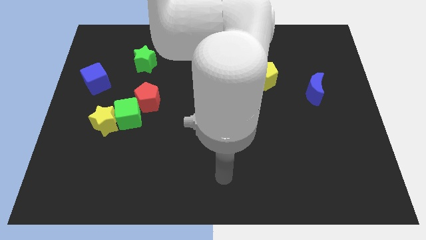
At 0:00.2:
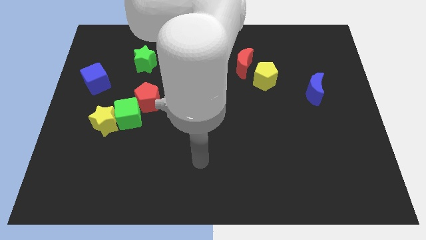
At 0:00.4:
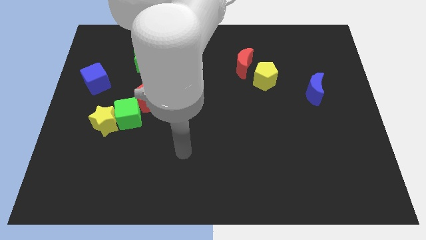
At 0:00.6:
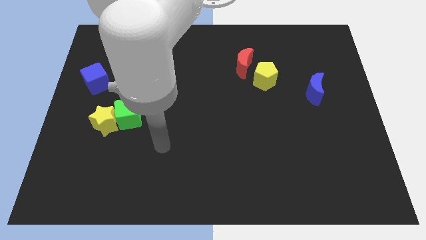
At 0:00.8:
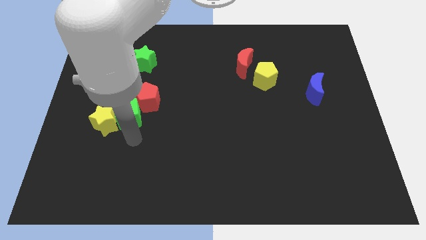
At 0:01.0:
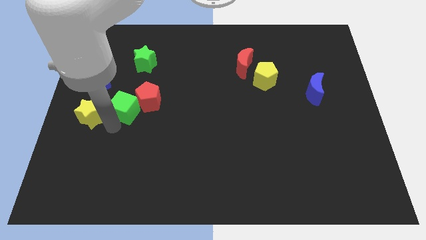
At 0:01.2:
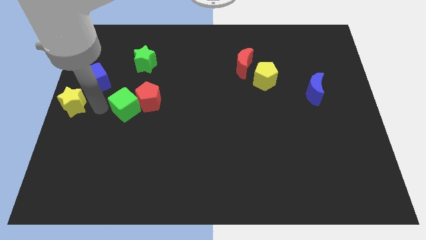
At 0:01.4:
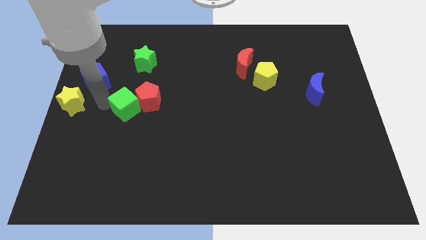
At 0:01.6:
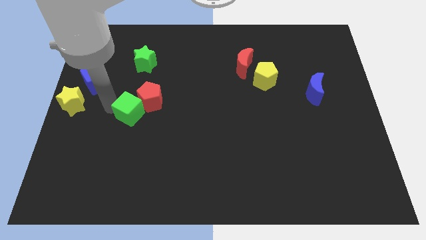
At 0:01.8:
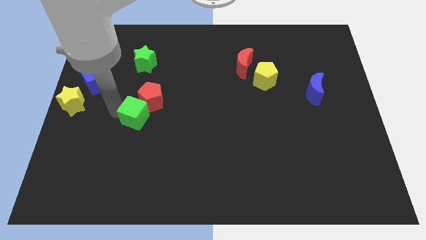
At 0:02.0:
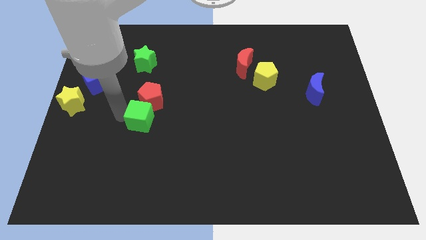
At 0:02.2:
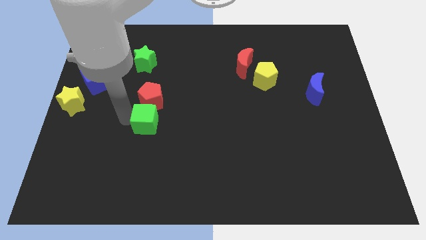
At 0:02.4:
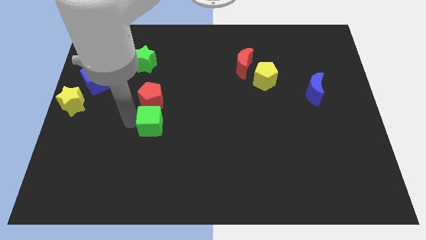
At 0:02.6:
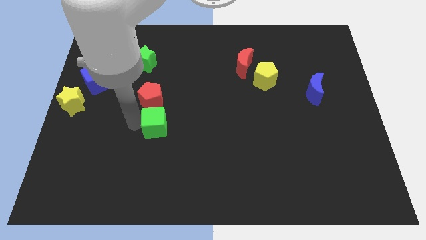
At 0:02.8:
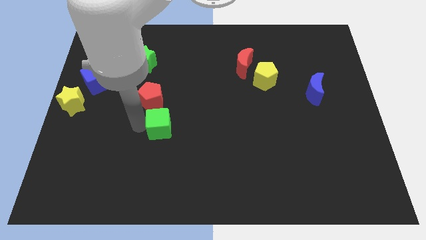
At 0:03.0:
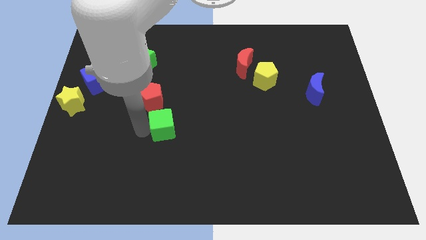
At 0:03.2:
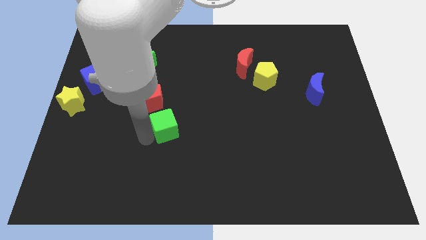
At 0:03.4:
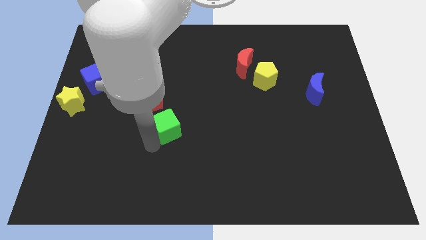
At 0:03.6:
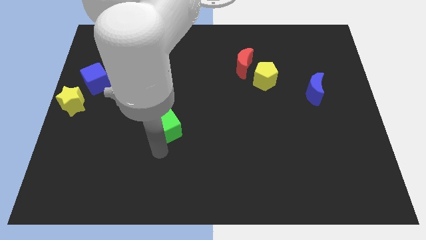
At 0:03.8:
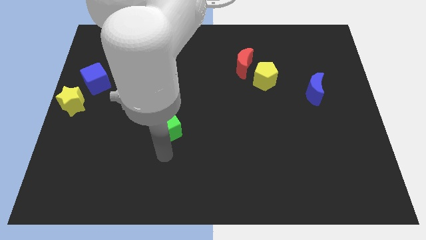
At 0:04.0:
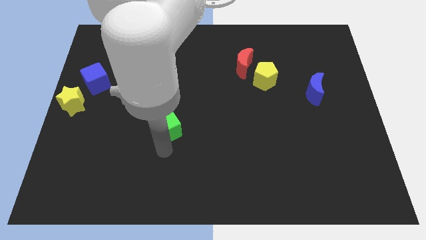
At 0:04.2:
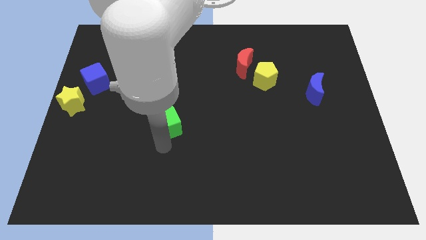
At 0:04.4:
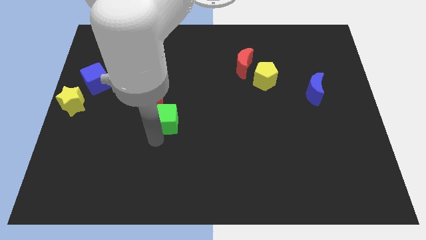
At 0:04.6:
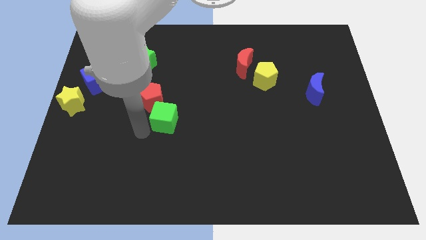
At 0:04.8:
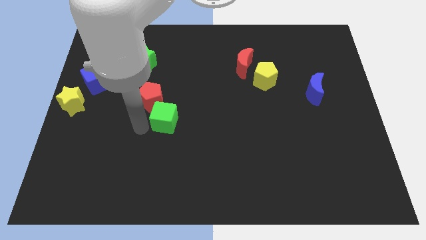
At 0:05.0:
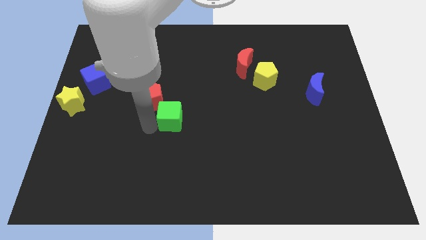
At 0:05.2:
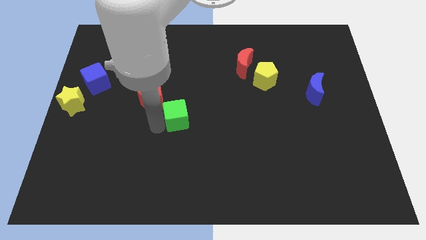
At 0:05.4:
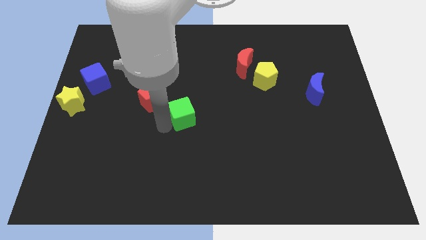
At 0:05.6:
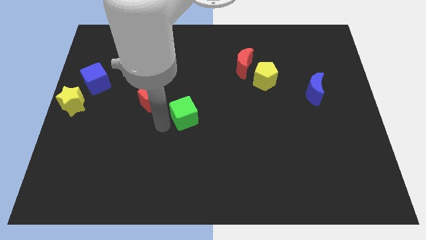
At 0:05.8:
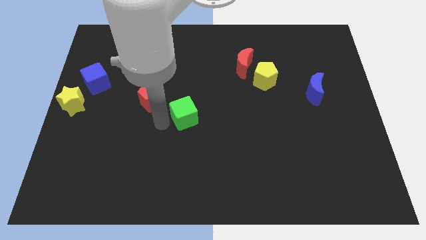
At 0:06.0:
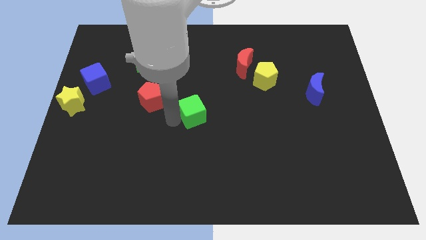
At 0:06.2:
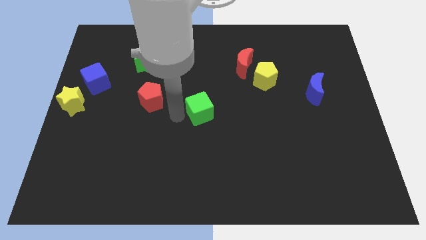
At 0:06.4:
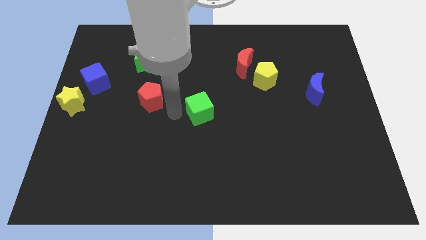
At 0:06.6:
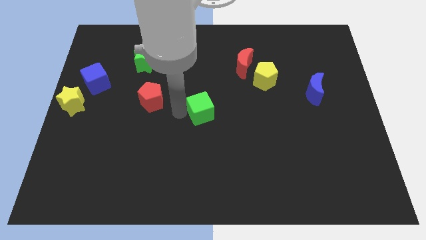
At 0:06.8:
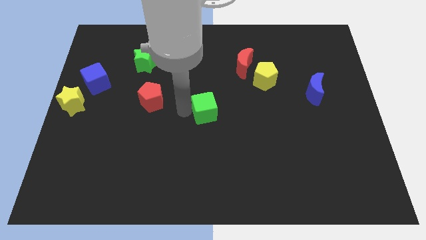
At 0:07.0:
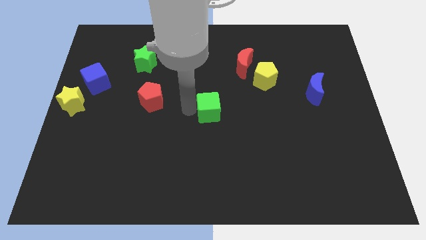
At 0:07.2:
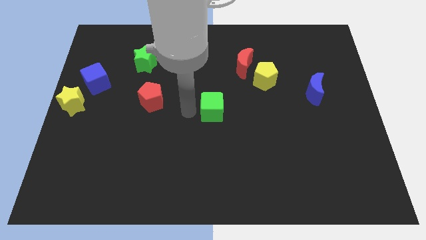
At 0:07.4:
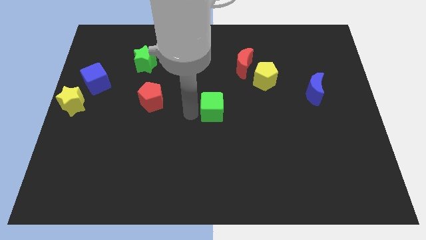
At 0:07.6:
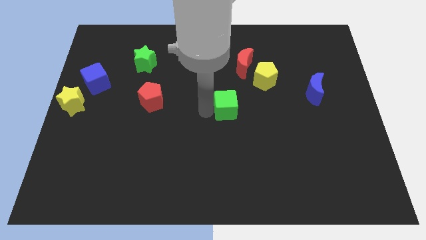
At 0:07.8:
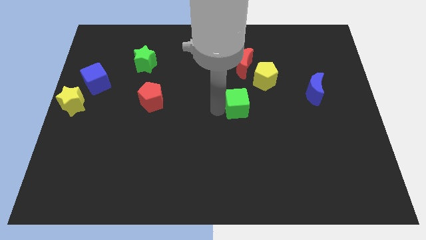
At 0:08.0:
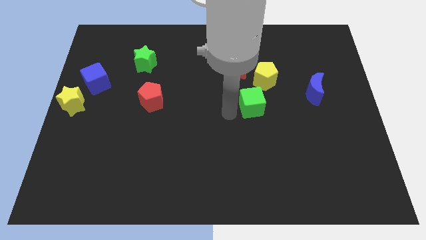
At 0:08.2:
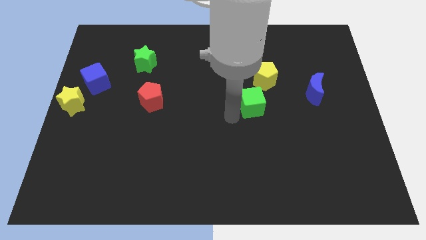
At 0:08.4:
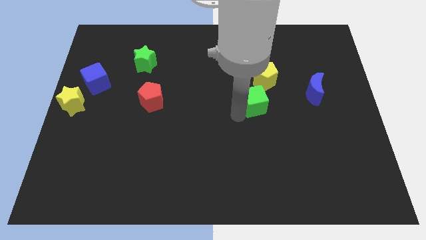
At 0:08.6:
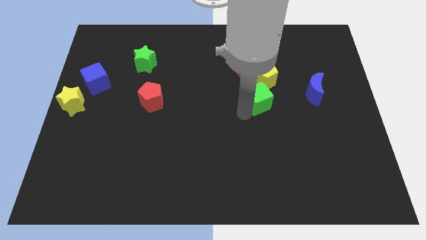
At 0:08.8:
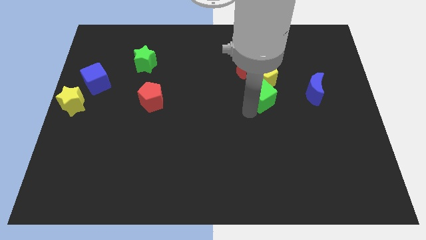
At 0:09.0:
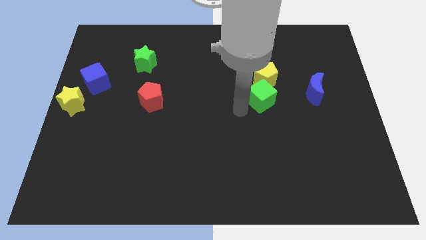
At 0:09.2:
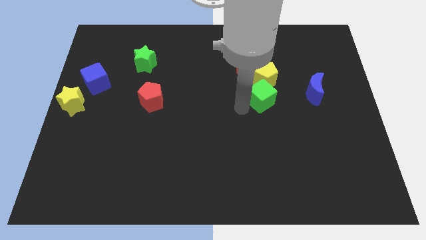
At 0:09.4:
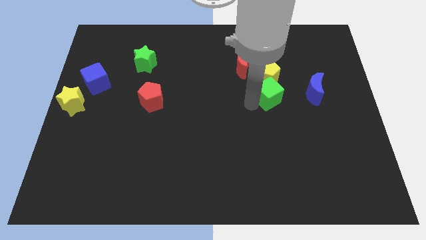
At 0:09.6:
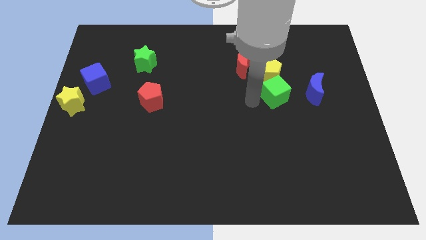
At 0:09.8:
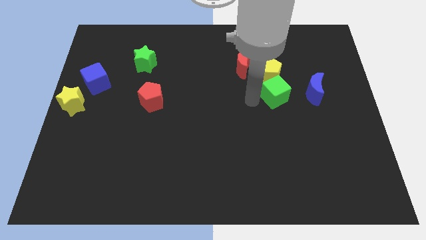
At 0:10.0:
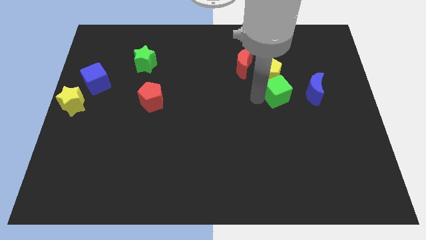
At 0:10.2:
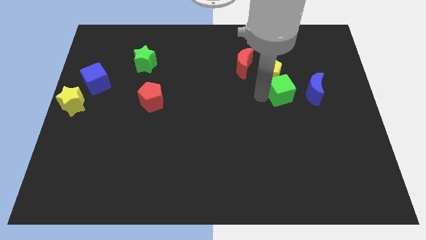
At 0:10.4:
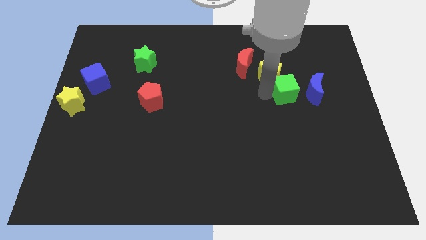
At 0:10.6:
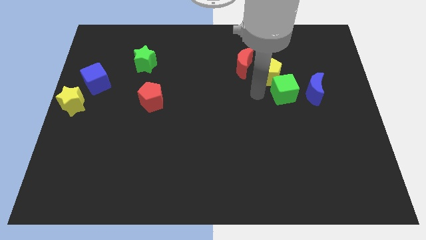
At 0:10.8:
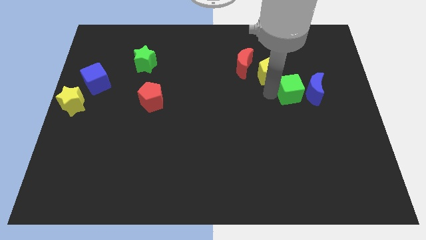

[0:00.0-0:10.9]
move the green cube towards the blue moon

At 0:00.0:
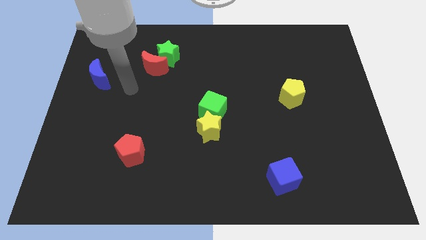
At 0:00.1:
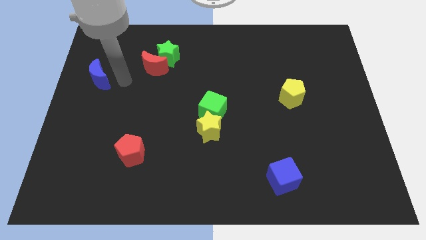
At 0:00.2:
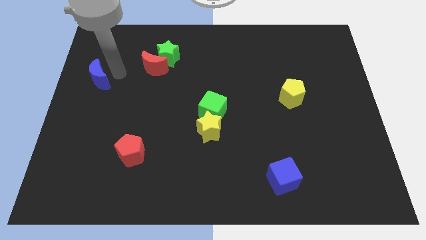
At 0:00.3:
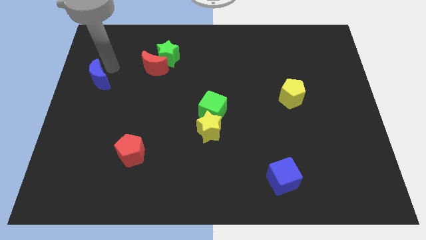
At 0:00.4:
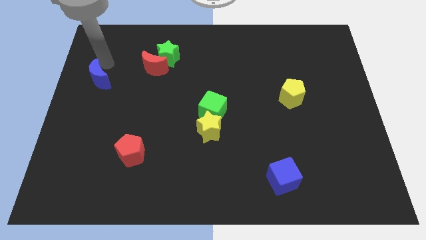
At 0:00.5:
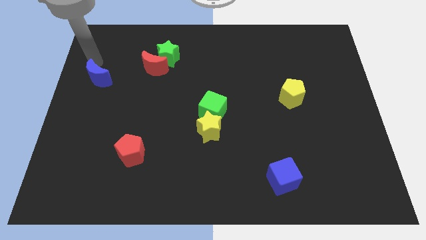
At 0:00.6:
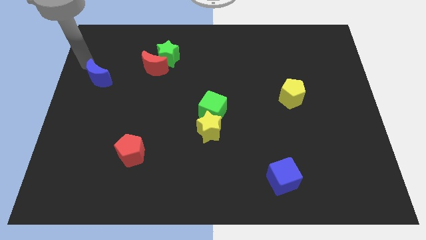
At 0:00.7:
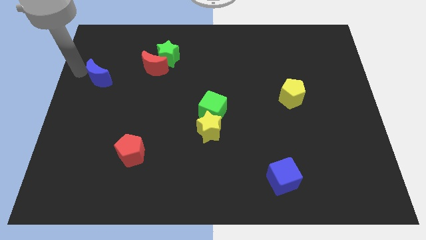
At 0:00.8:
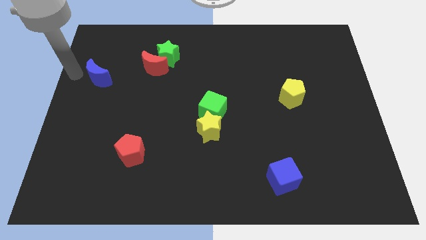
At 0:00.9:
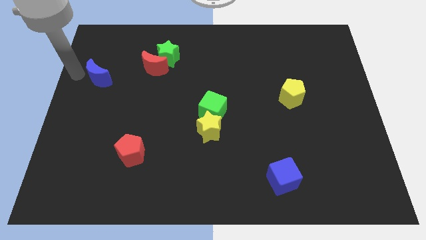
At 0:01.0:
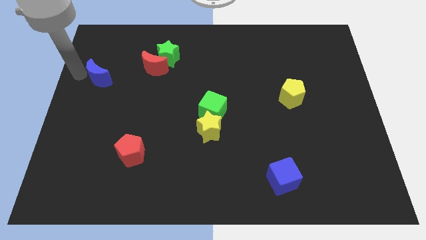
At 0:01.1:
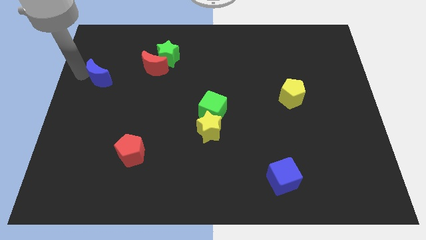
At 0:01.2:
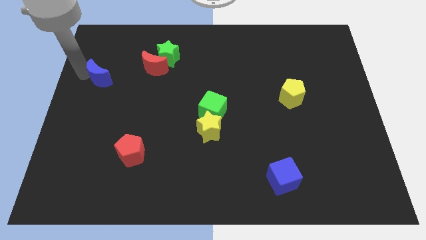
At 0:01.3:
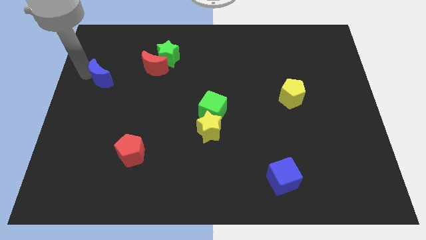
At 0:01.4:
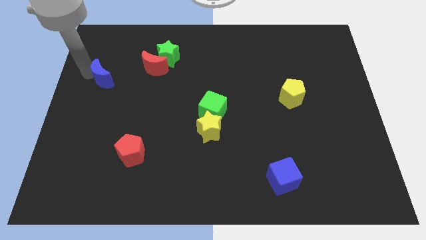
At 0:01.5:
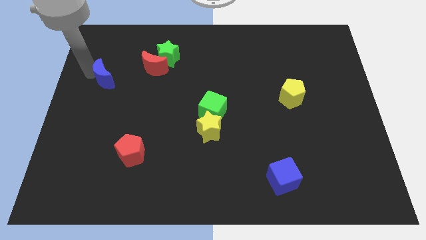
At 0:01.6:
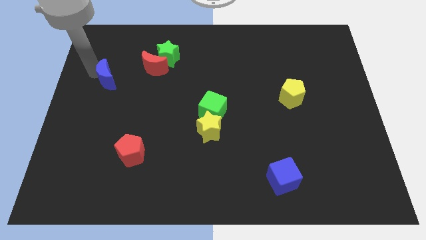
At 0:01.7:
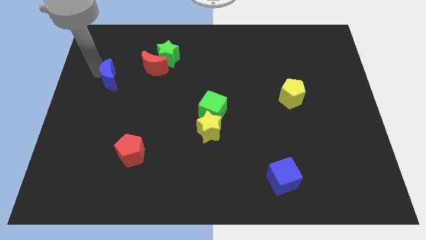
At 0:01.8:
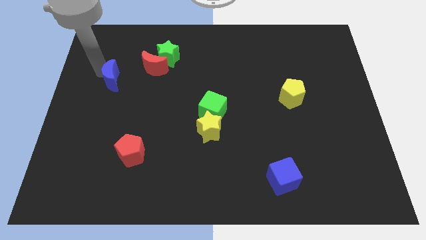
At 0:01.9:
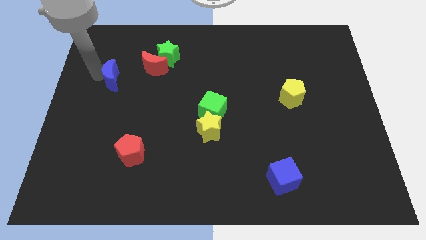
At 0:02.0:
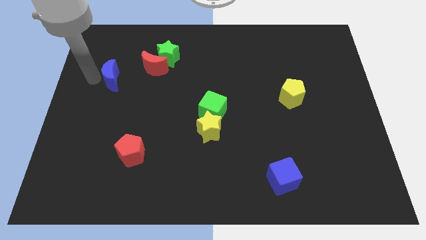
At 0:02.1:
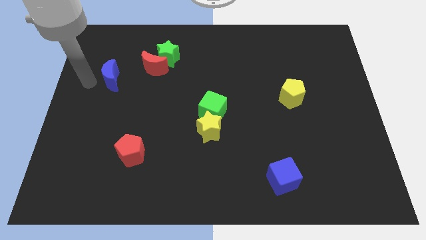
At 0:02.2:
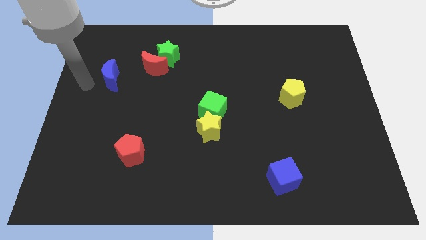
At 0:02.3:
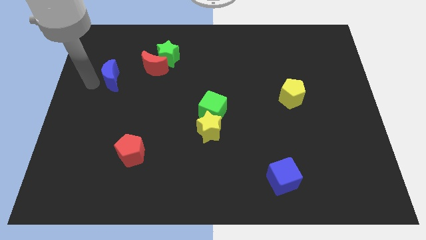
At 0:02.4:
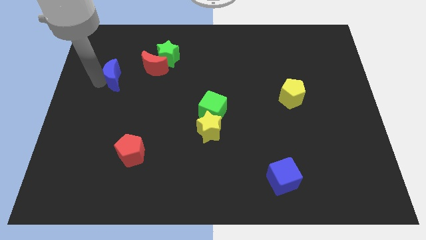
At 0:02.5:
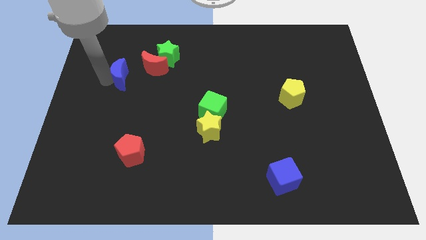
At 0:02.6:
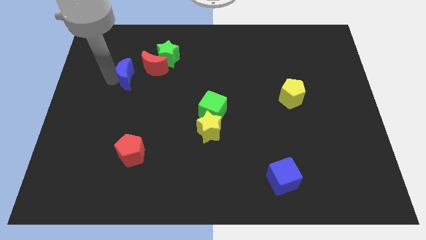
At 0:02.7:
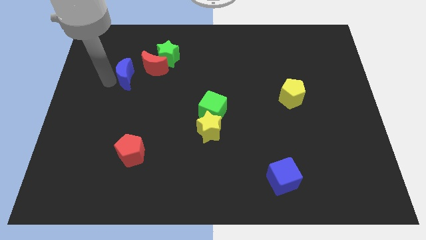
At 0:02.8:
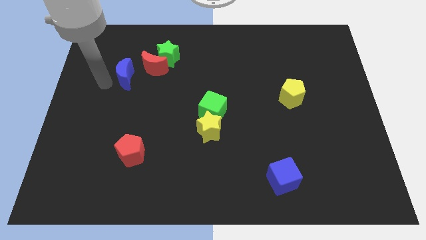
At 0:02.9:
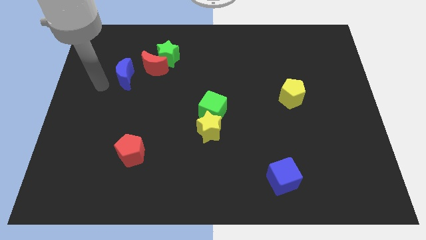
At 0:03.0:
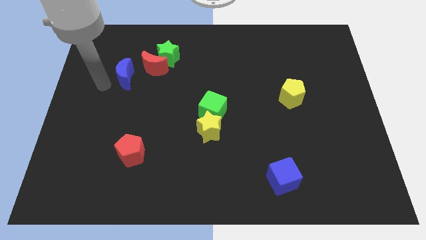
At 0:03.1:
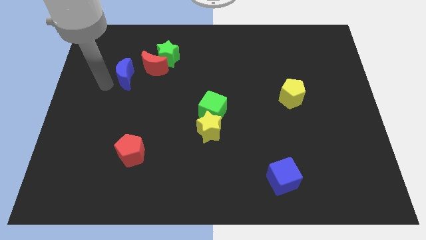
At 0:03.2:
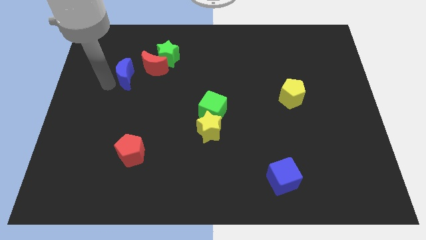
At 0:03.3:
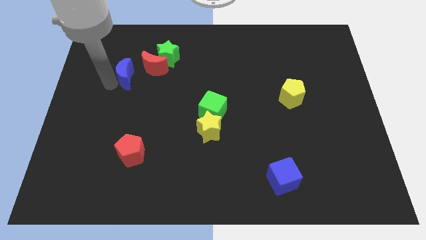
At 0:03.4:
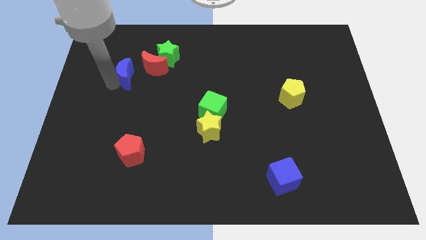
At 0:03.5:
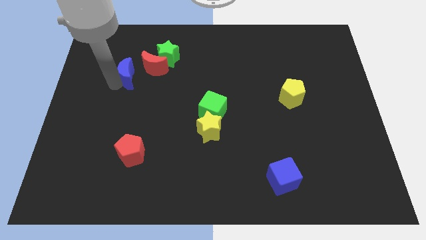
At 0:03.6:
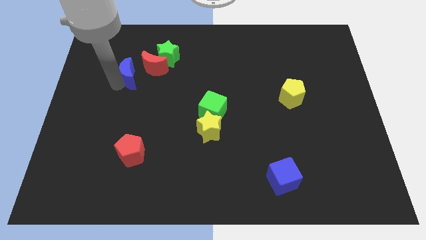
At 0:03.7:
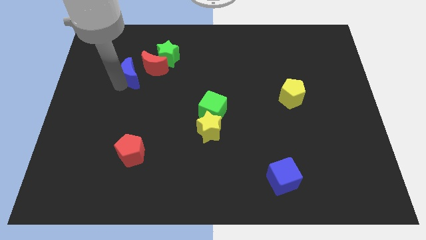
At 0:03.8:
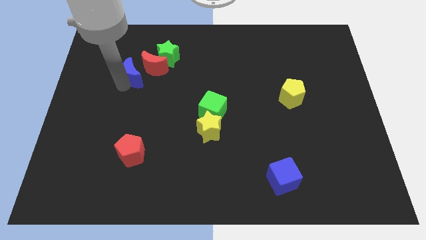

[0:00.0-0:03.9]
slide the blue moon towards the red moon
